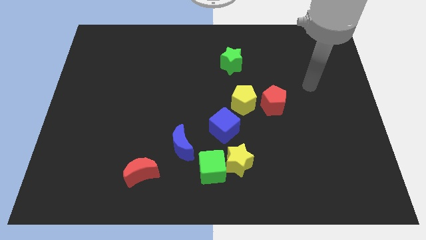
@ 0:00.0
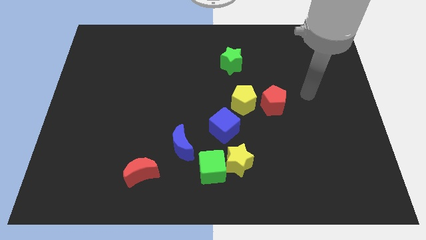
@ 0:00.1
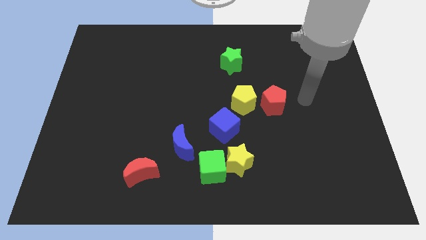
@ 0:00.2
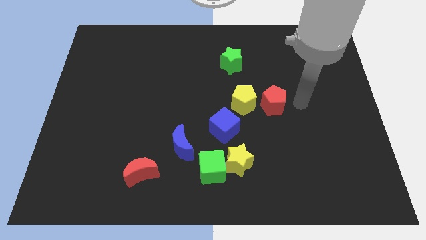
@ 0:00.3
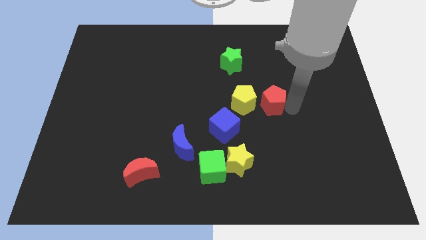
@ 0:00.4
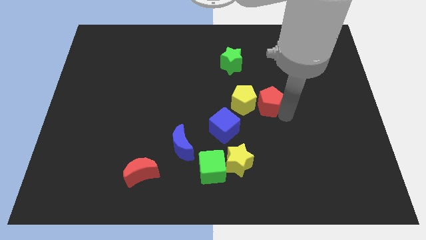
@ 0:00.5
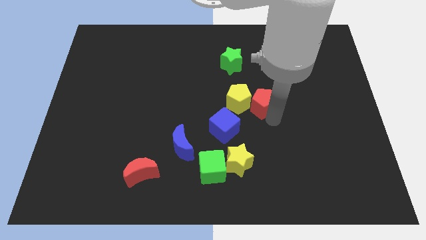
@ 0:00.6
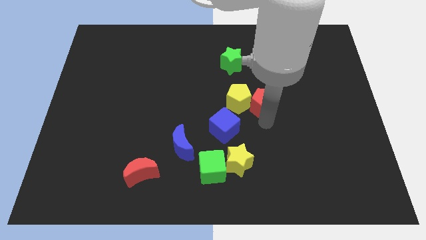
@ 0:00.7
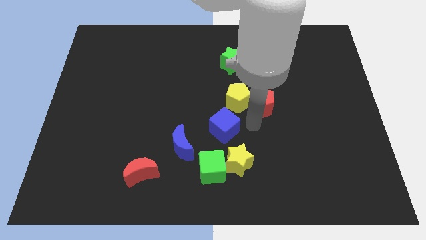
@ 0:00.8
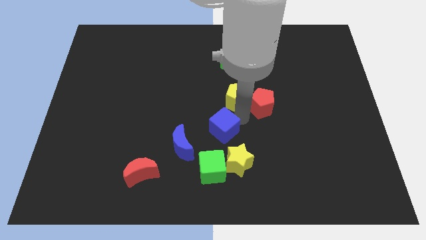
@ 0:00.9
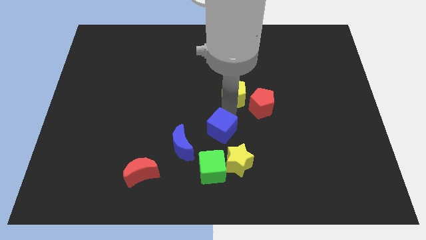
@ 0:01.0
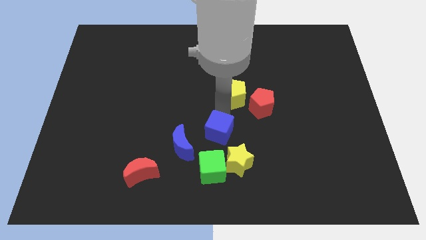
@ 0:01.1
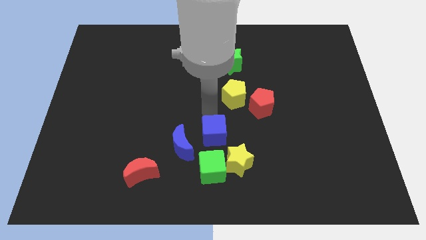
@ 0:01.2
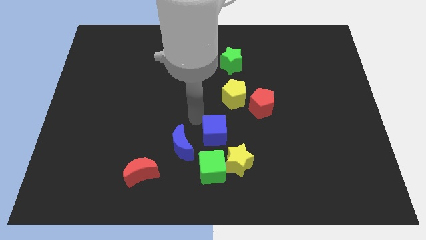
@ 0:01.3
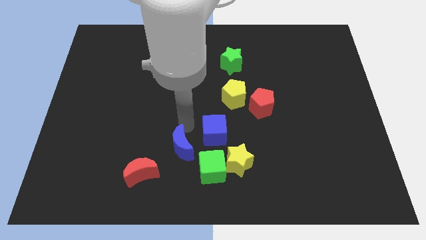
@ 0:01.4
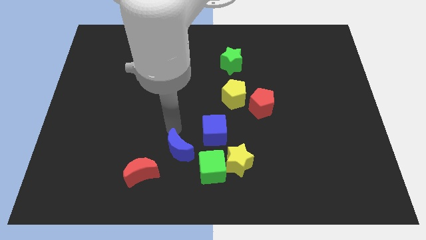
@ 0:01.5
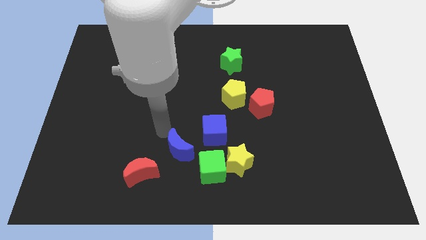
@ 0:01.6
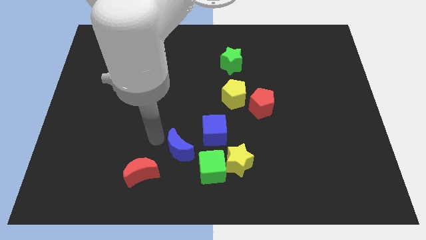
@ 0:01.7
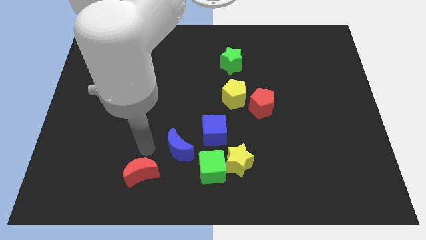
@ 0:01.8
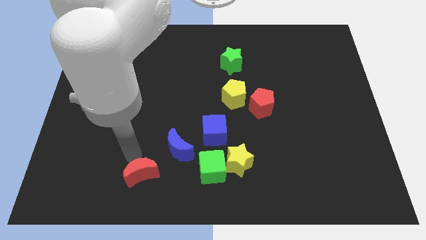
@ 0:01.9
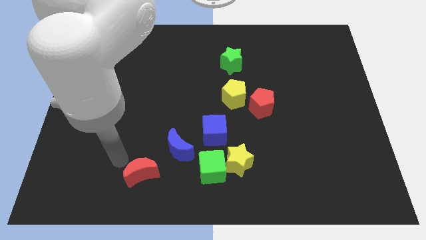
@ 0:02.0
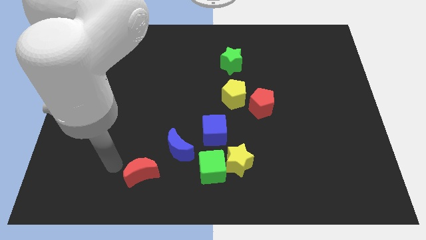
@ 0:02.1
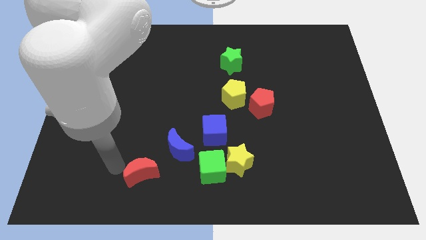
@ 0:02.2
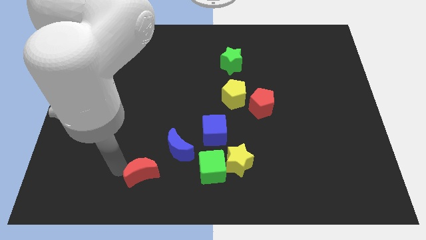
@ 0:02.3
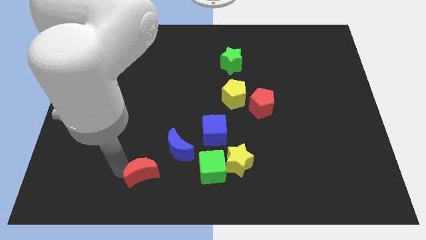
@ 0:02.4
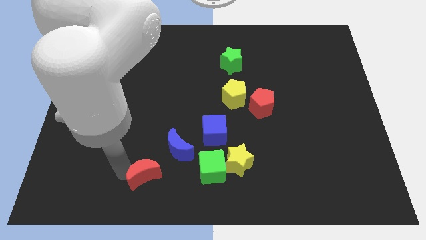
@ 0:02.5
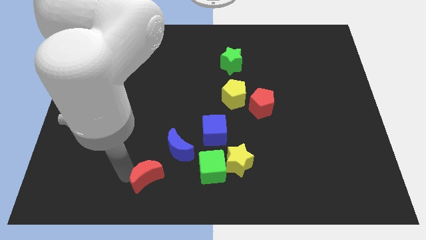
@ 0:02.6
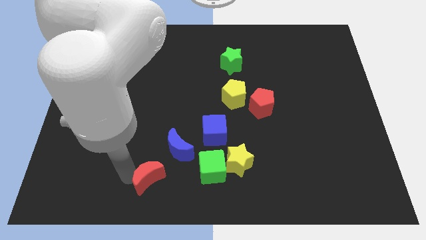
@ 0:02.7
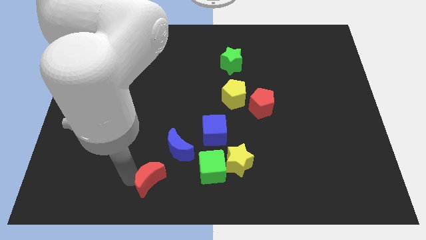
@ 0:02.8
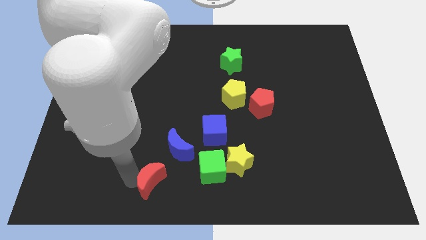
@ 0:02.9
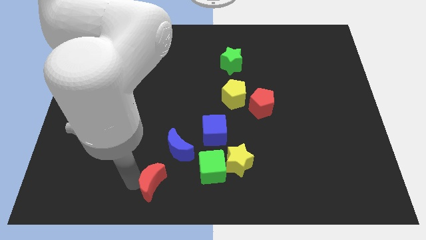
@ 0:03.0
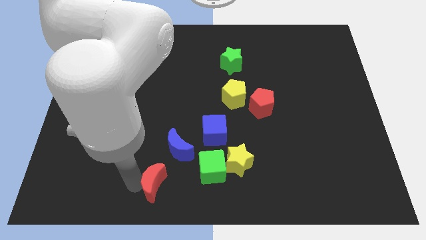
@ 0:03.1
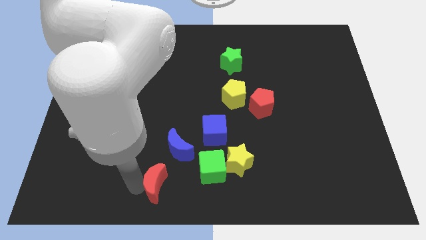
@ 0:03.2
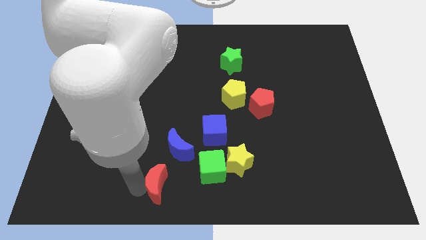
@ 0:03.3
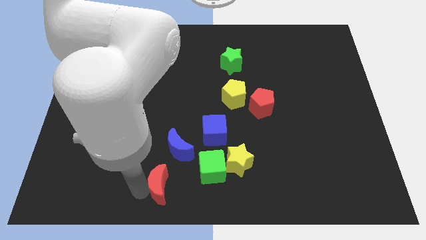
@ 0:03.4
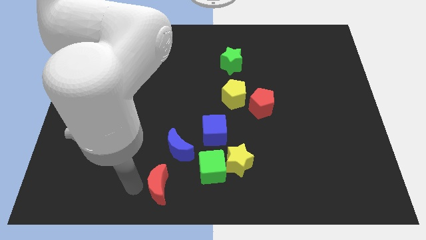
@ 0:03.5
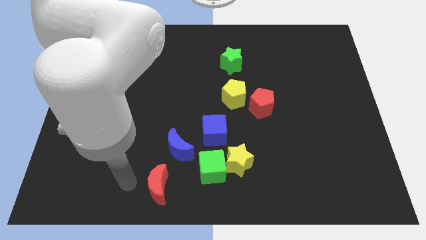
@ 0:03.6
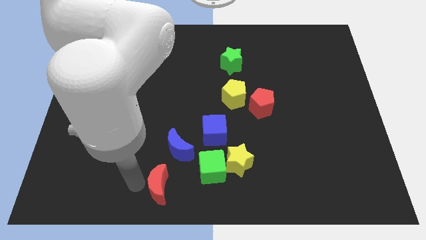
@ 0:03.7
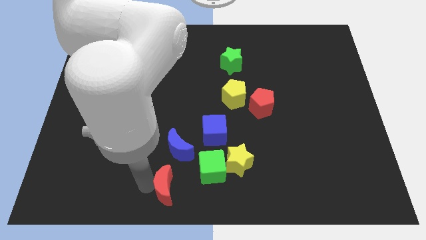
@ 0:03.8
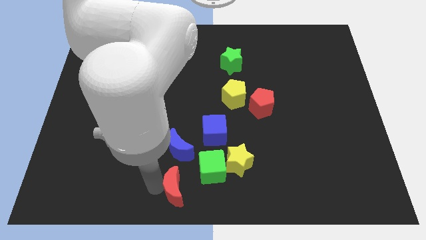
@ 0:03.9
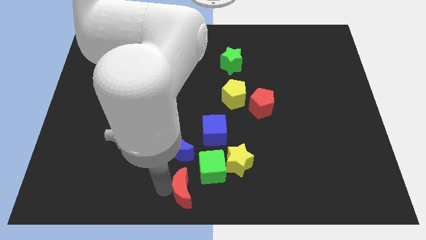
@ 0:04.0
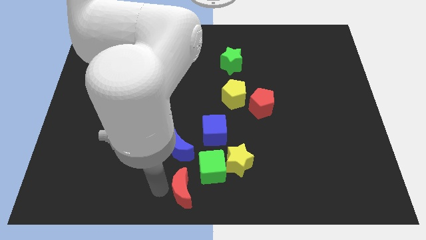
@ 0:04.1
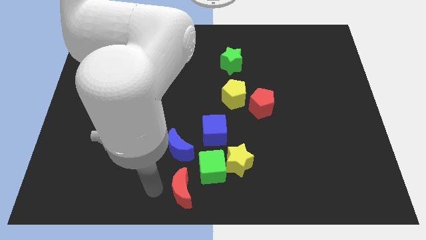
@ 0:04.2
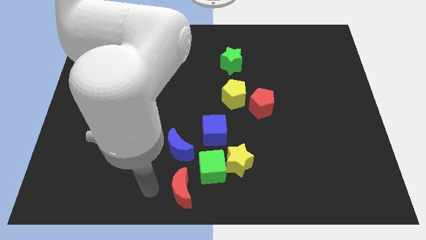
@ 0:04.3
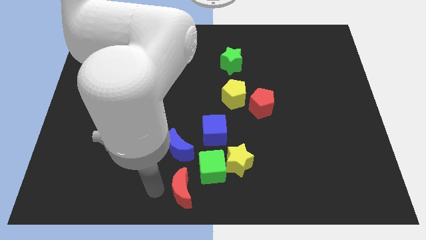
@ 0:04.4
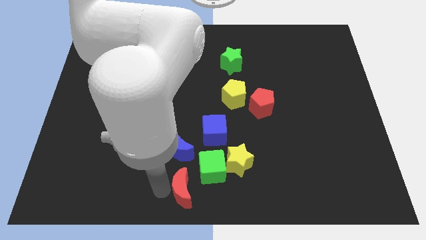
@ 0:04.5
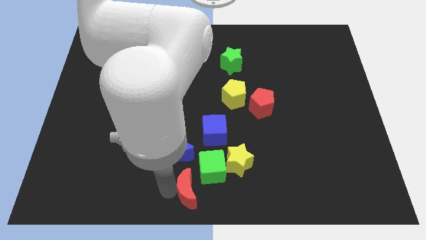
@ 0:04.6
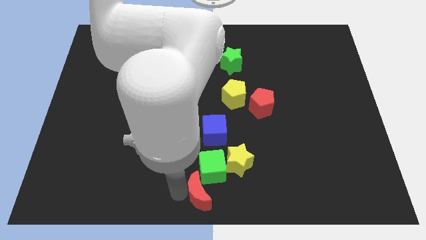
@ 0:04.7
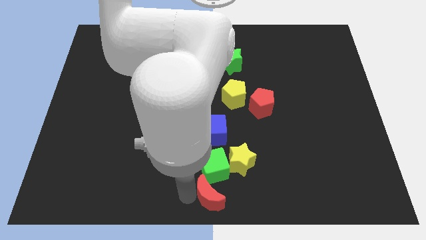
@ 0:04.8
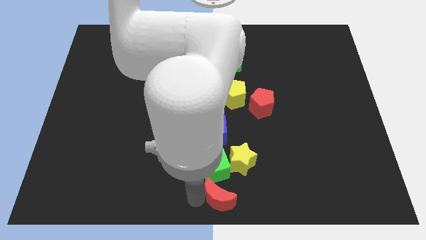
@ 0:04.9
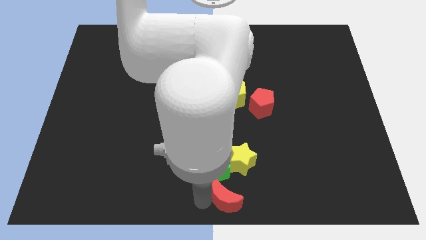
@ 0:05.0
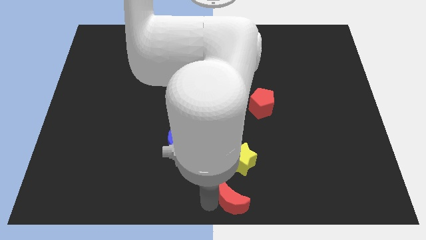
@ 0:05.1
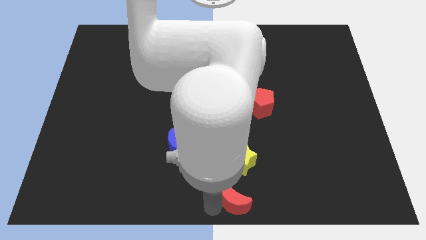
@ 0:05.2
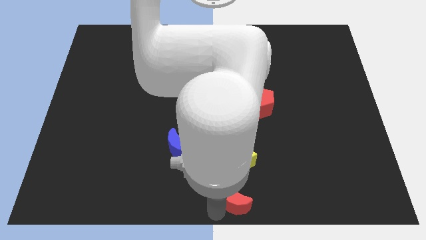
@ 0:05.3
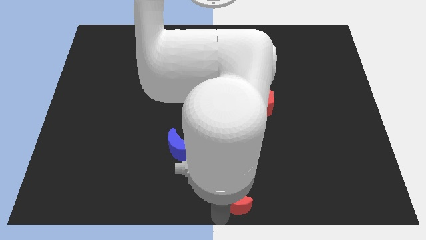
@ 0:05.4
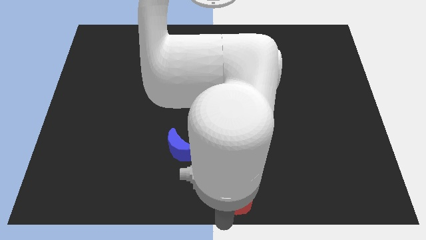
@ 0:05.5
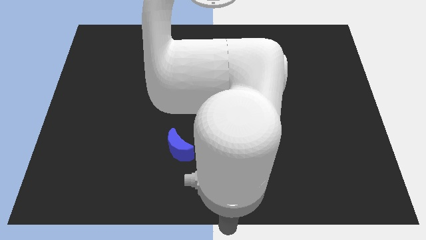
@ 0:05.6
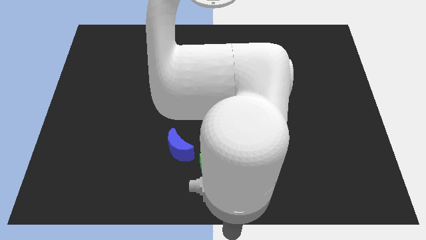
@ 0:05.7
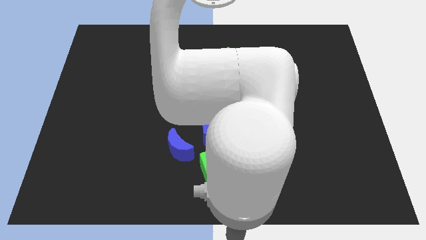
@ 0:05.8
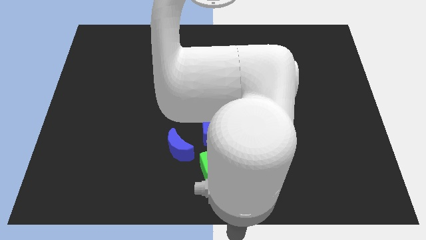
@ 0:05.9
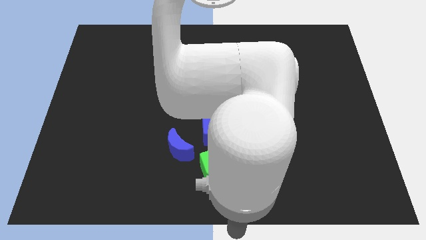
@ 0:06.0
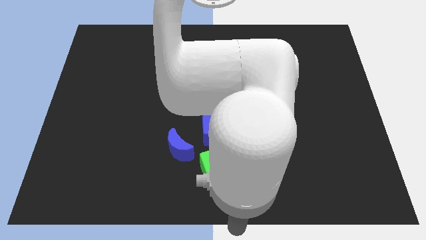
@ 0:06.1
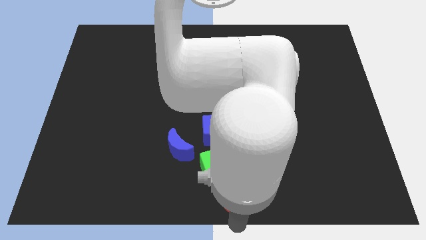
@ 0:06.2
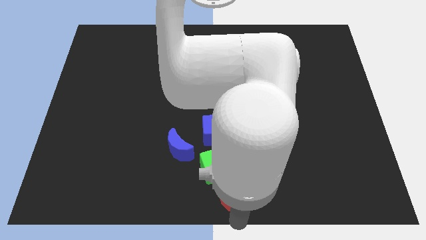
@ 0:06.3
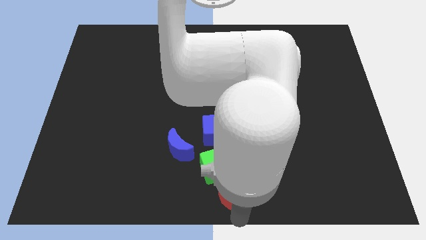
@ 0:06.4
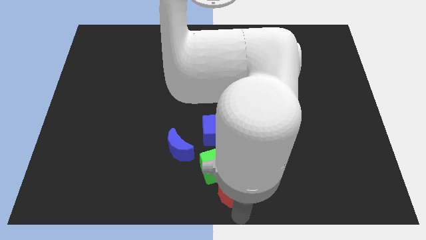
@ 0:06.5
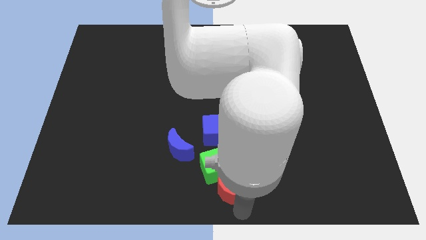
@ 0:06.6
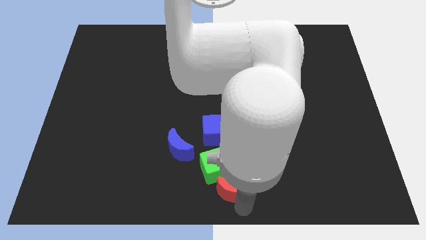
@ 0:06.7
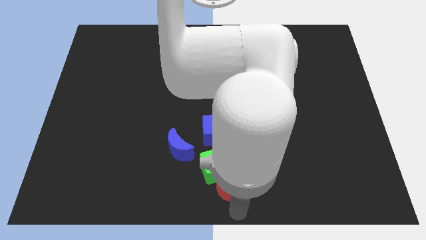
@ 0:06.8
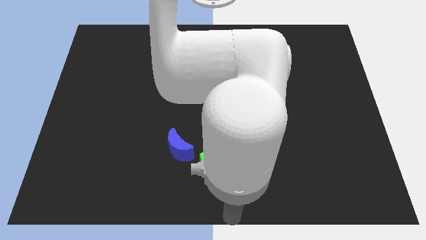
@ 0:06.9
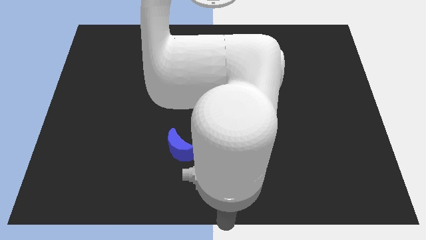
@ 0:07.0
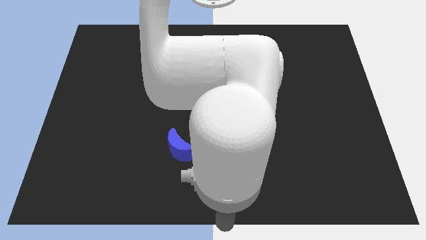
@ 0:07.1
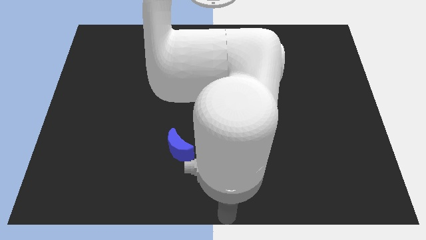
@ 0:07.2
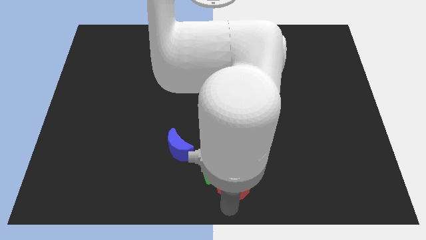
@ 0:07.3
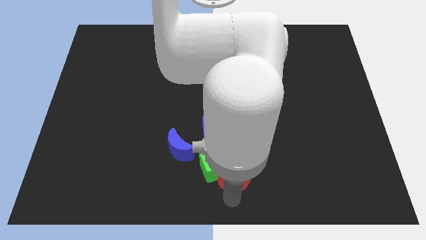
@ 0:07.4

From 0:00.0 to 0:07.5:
move the red moon next to the yellow star
